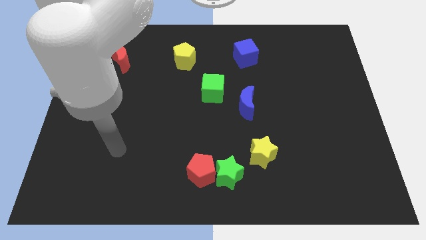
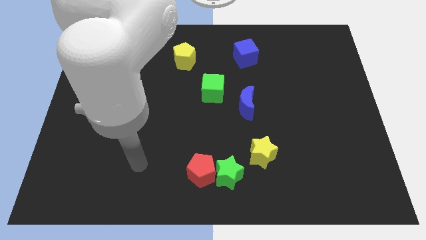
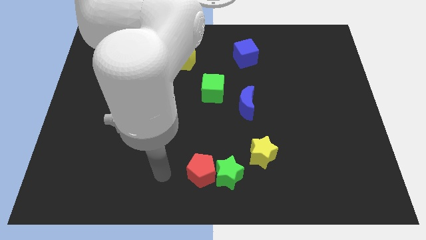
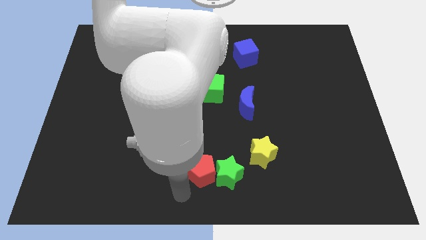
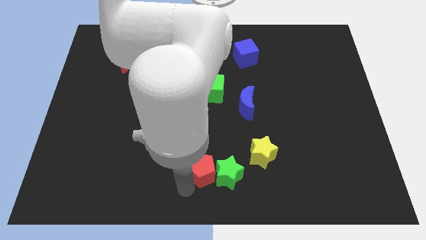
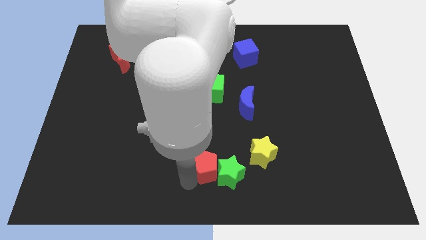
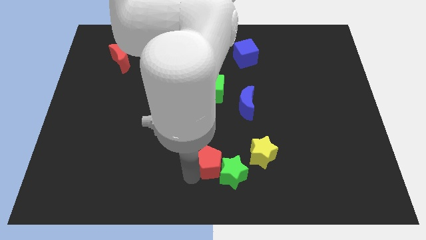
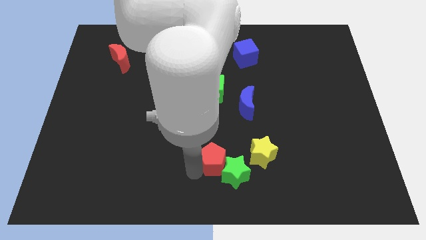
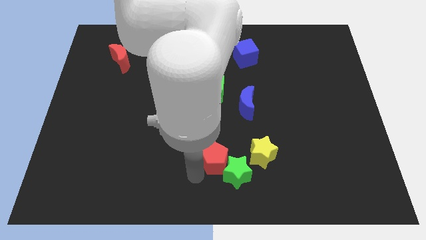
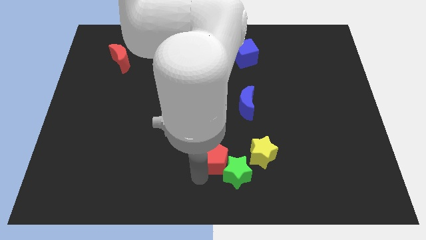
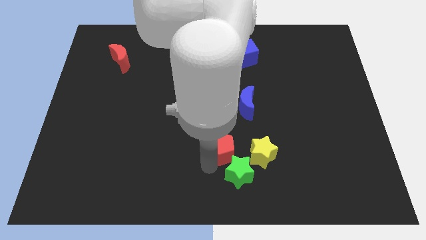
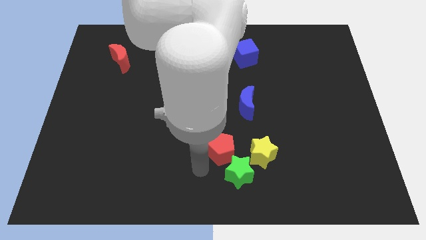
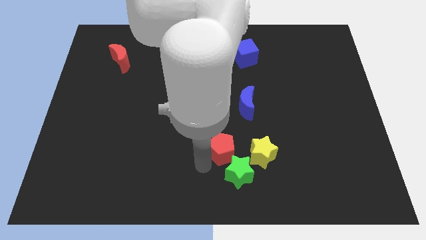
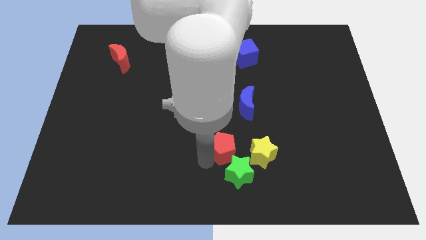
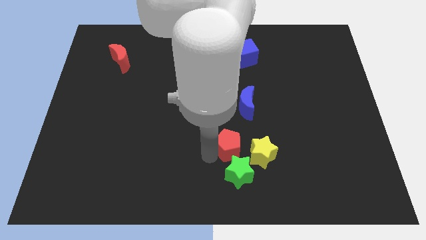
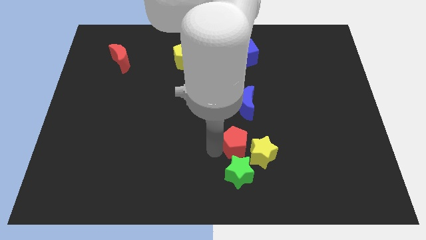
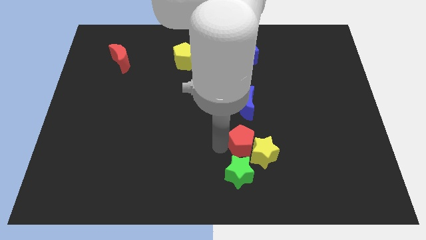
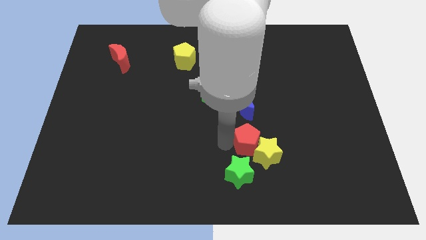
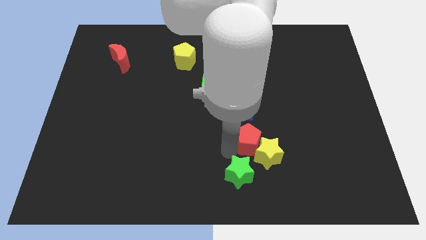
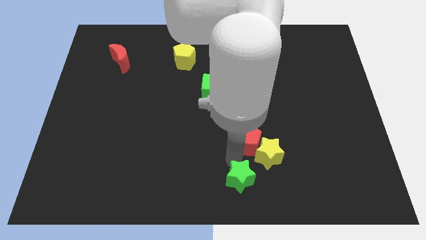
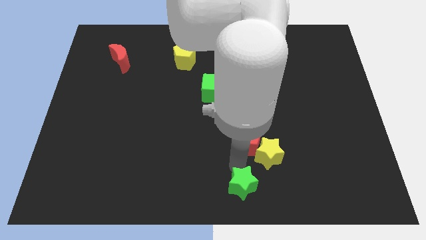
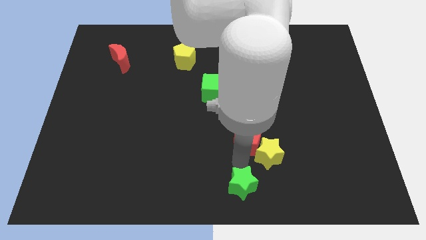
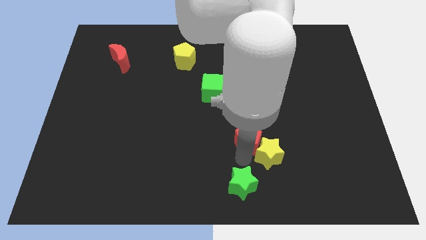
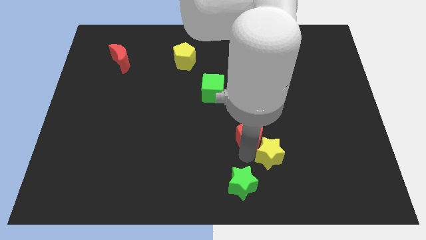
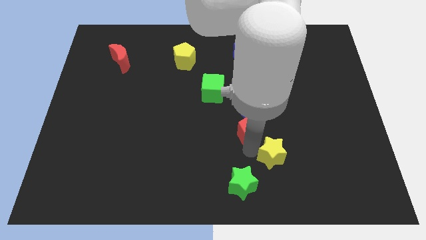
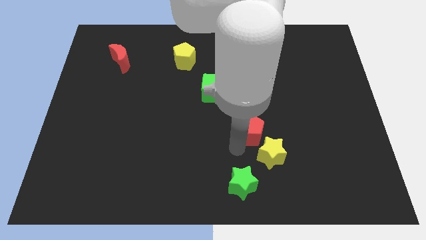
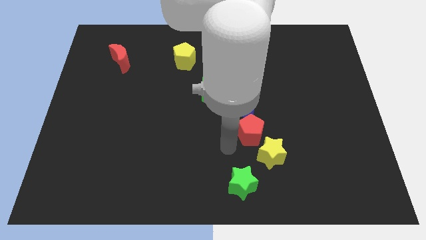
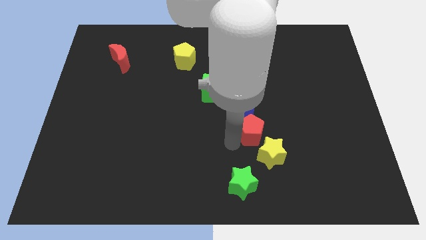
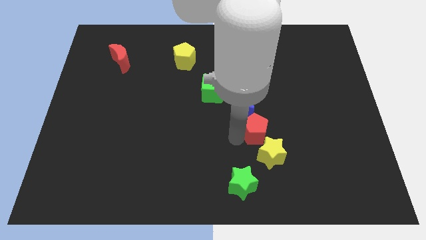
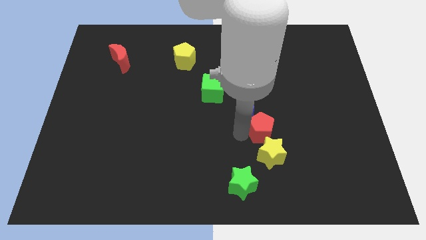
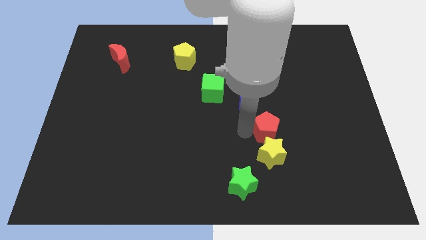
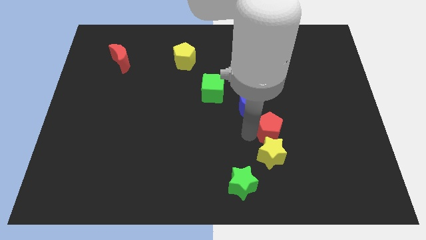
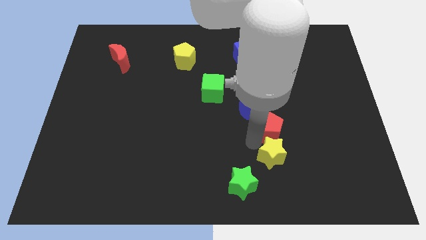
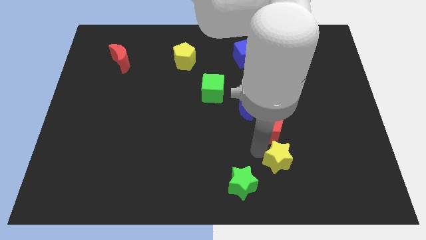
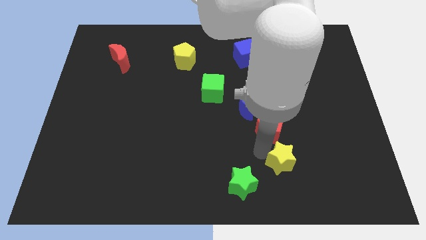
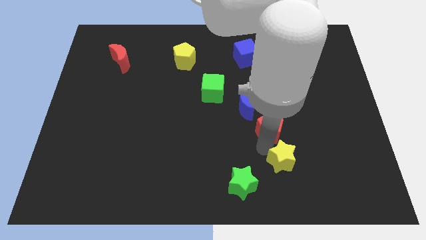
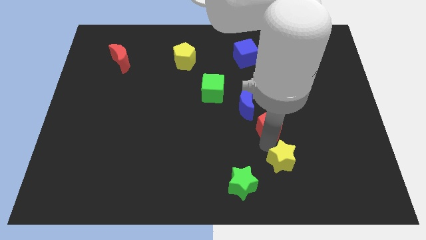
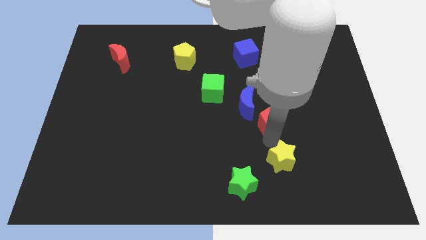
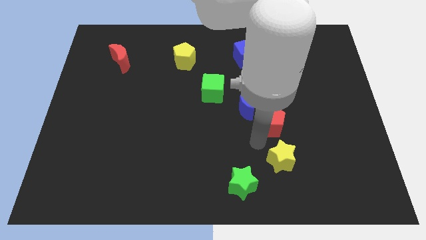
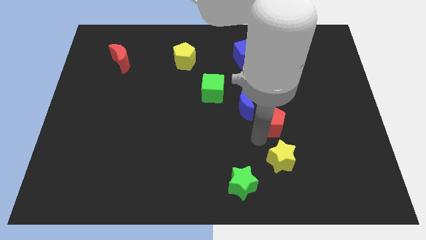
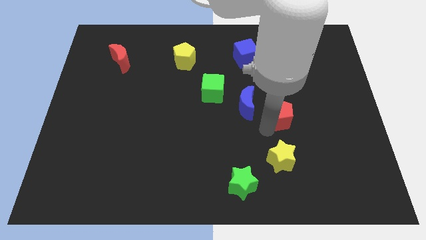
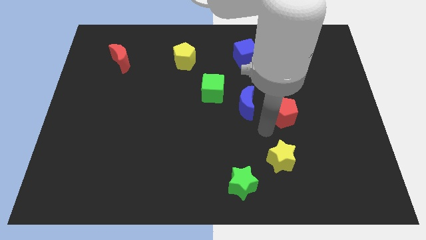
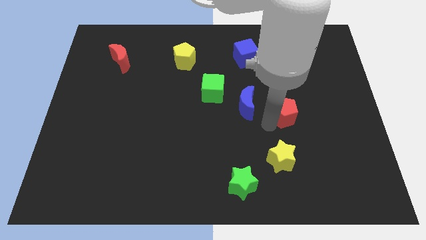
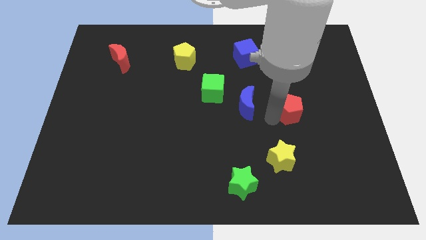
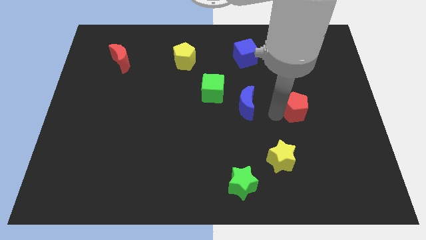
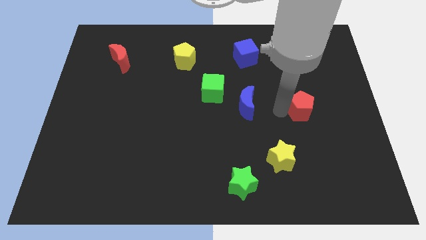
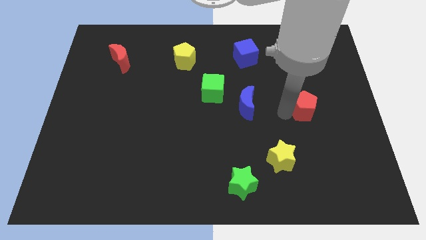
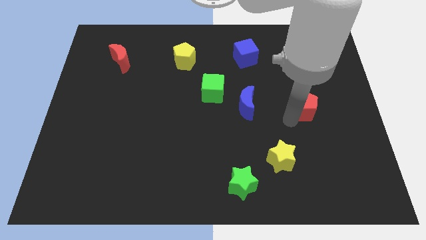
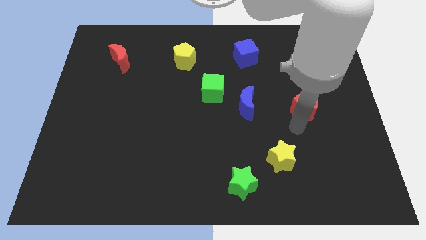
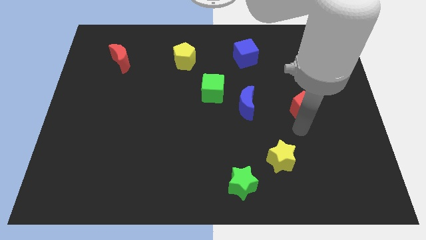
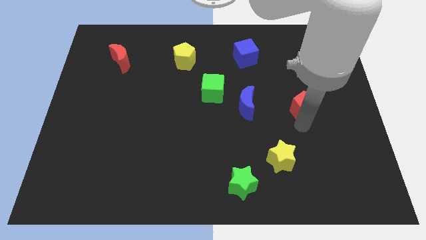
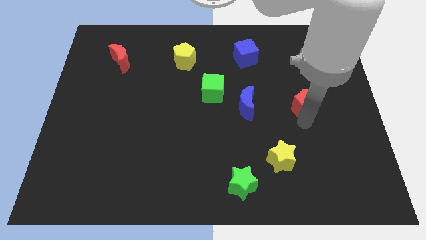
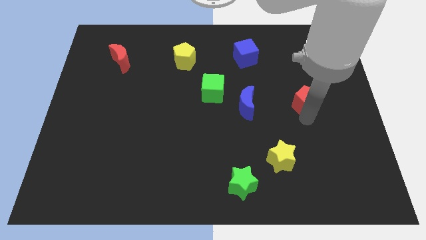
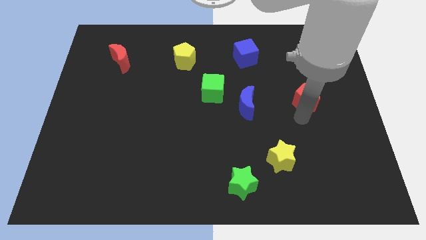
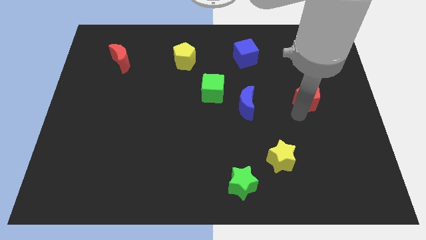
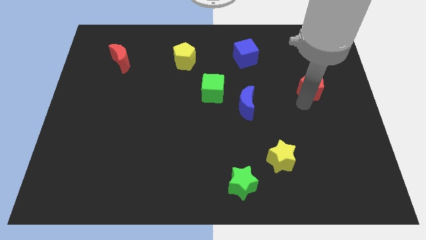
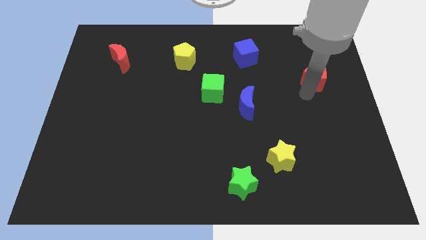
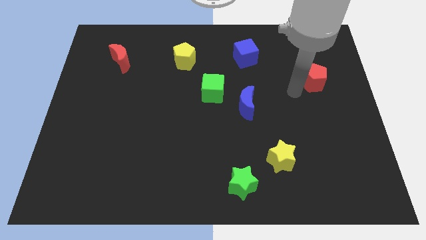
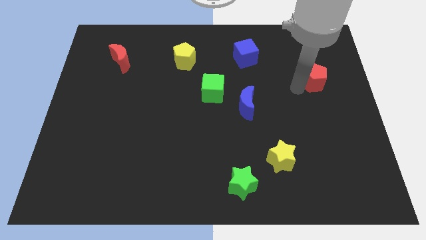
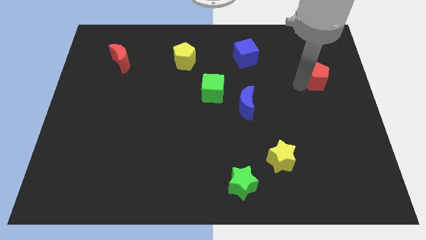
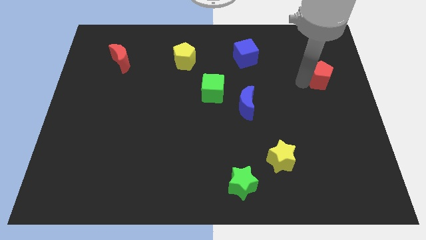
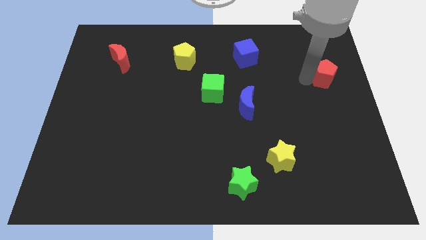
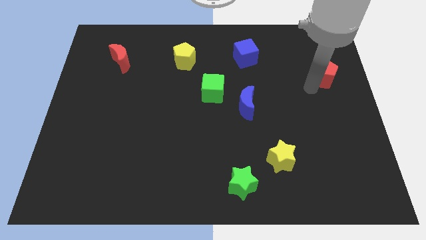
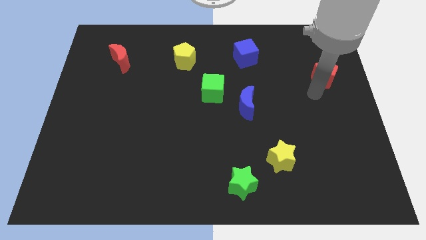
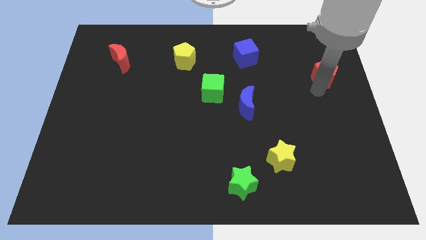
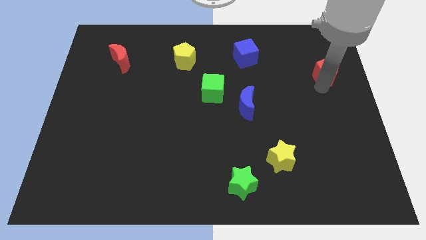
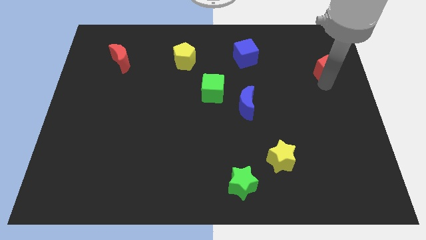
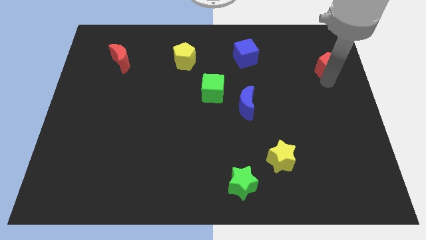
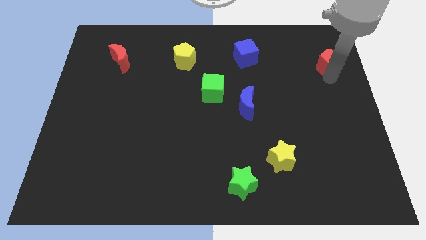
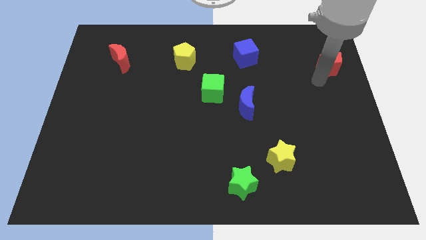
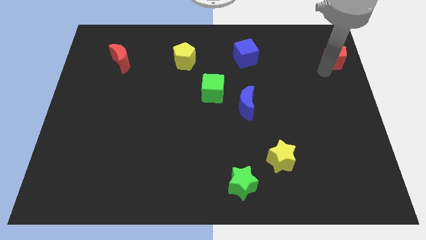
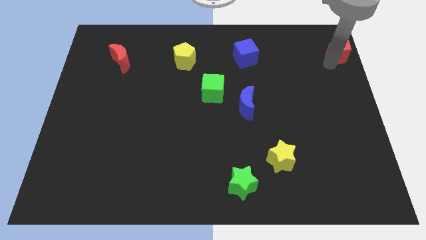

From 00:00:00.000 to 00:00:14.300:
push the red pentagon to the upper right corner

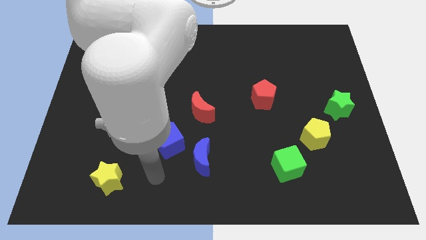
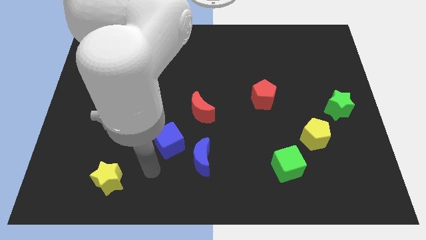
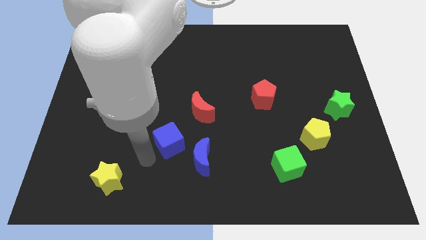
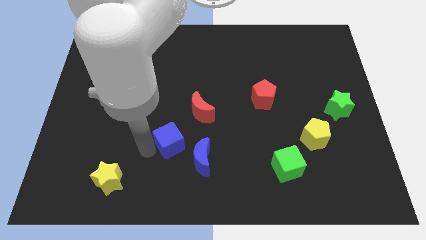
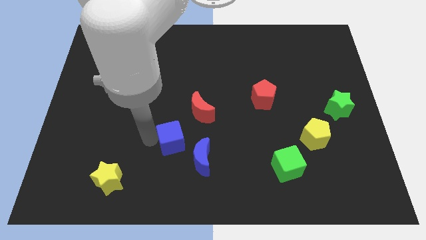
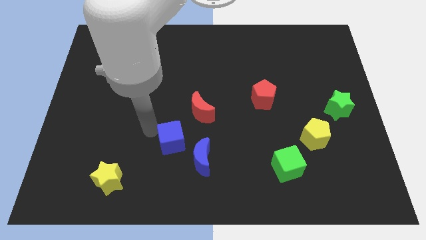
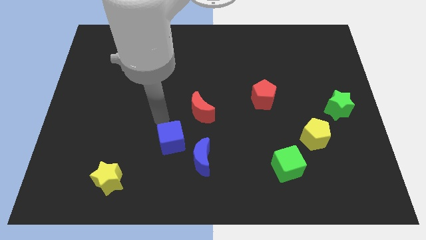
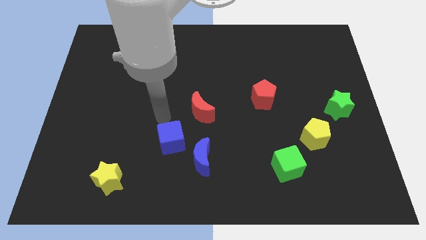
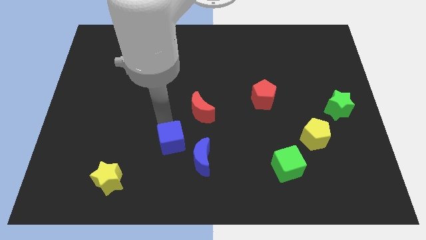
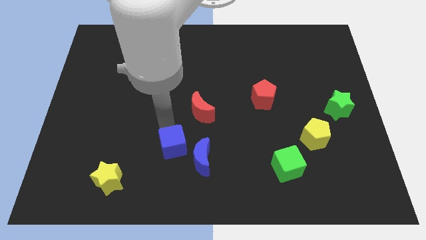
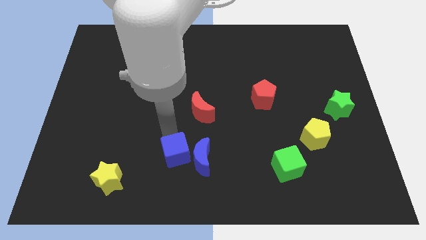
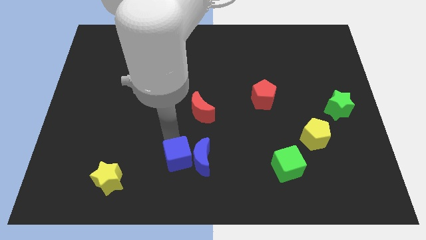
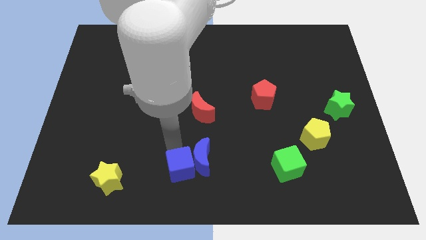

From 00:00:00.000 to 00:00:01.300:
put the blue cube to the bottom side
